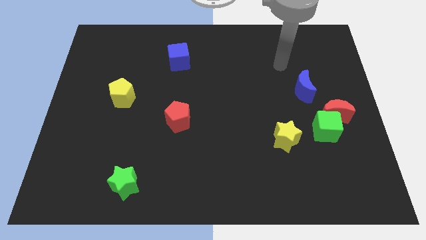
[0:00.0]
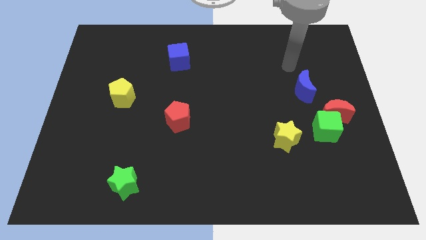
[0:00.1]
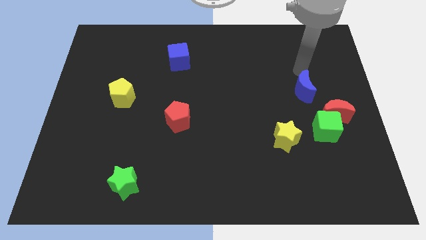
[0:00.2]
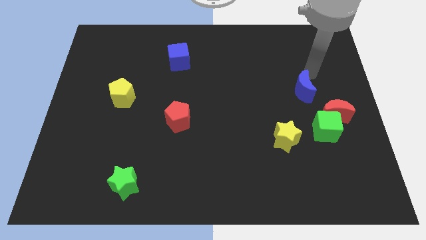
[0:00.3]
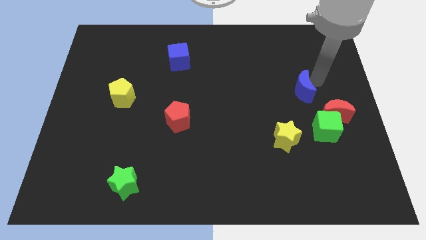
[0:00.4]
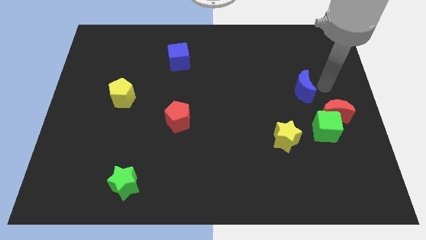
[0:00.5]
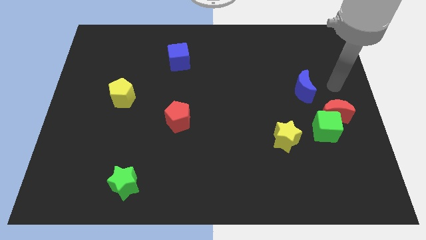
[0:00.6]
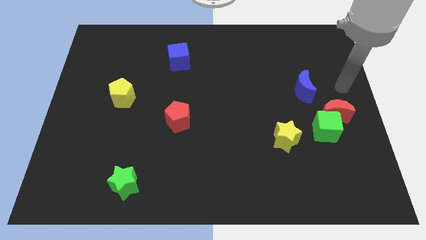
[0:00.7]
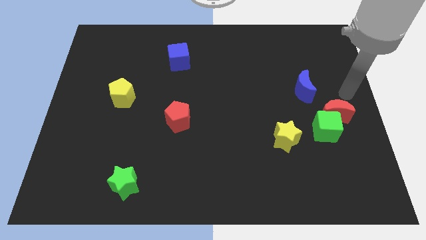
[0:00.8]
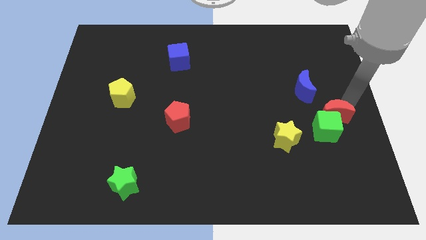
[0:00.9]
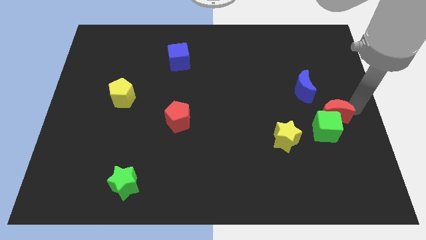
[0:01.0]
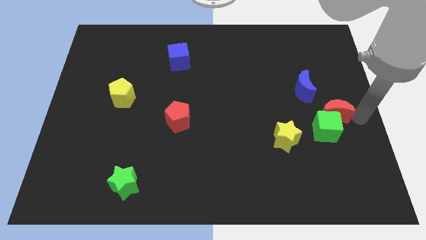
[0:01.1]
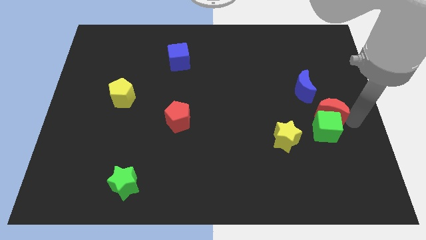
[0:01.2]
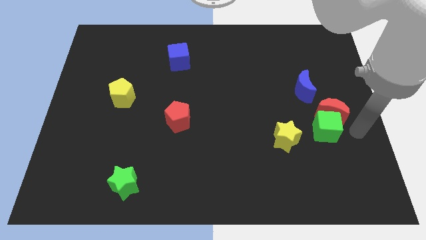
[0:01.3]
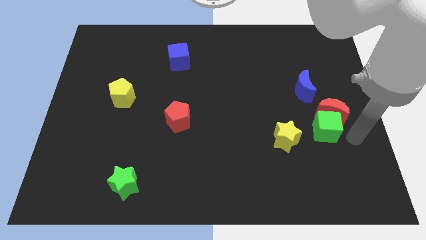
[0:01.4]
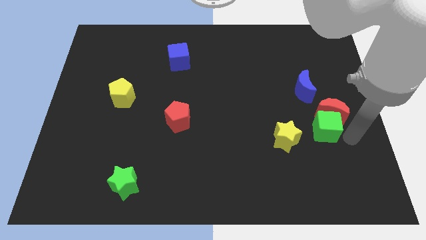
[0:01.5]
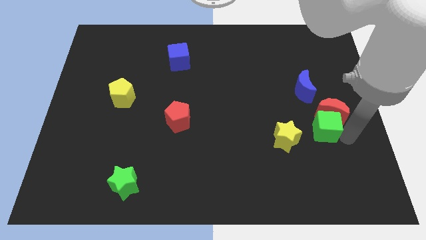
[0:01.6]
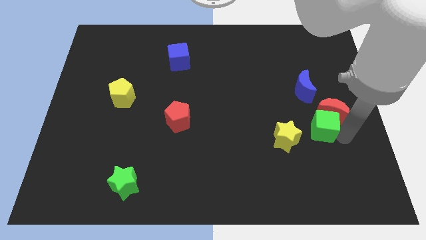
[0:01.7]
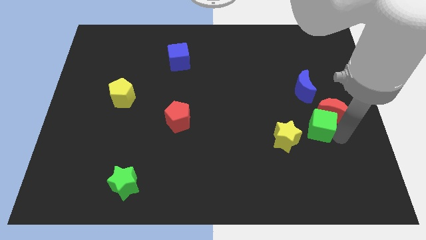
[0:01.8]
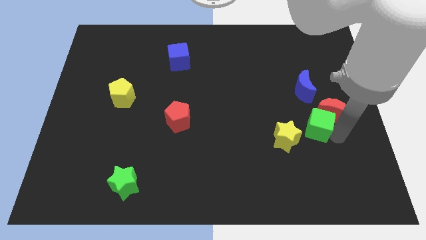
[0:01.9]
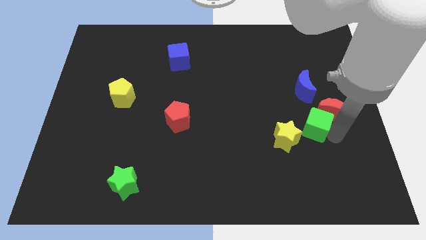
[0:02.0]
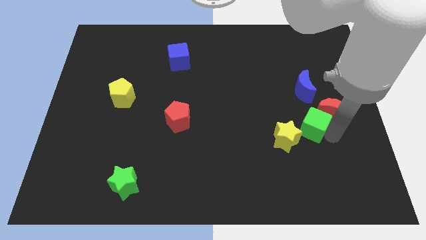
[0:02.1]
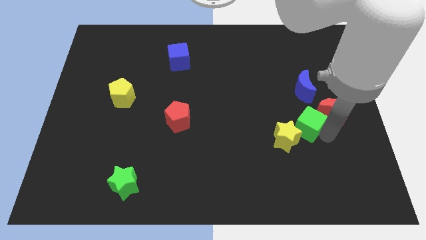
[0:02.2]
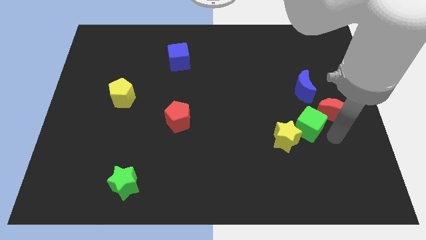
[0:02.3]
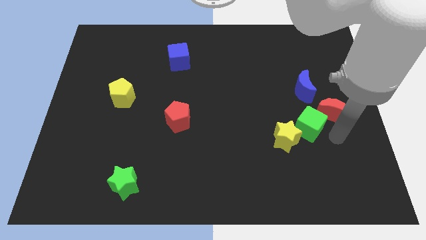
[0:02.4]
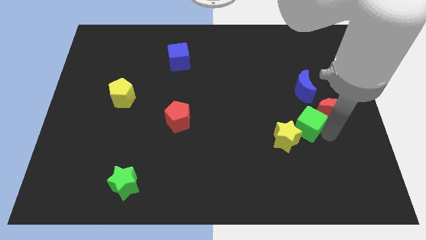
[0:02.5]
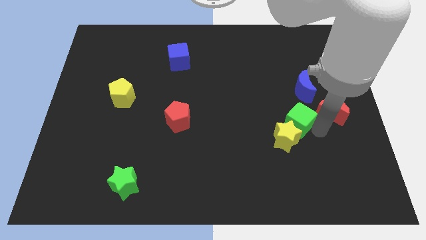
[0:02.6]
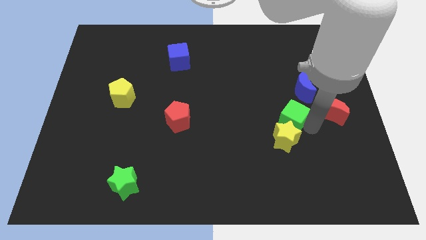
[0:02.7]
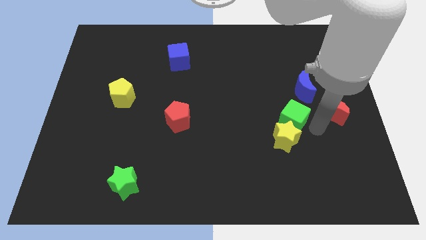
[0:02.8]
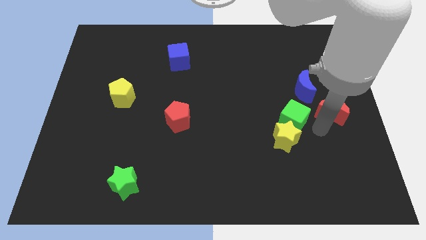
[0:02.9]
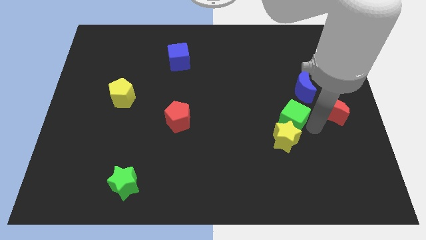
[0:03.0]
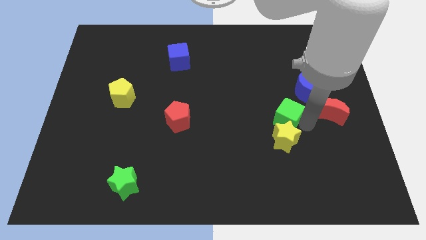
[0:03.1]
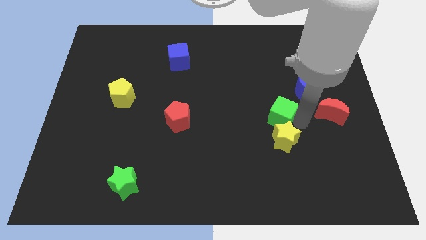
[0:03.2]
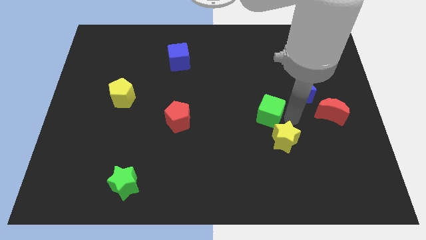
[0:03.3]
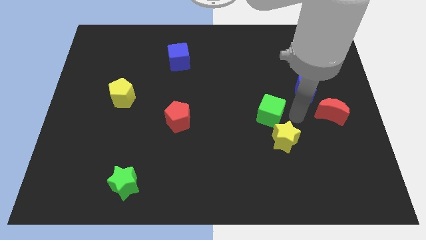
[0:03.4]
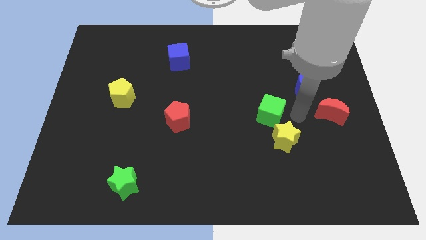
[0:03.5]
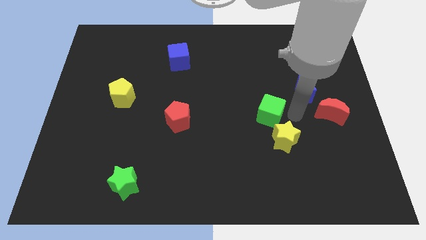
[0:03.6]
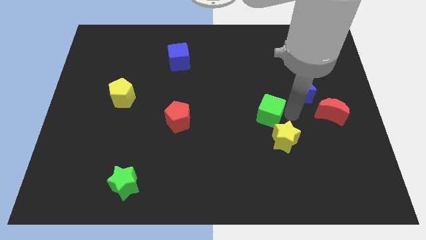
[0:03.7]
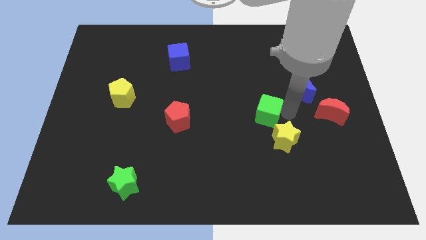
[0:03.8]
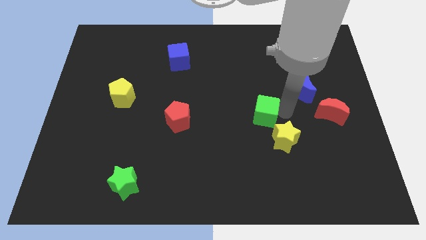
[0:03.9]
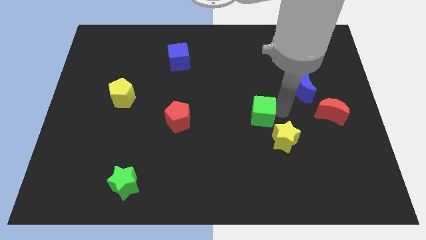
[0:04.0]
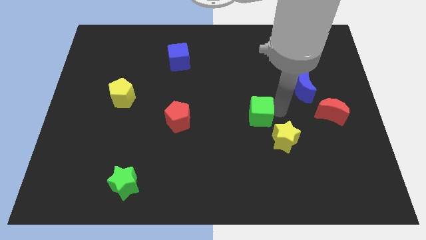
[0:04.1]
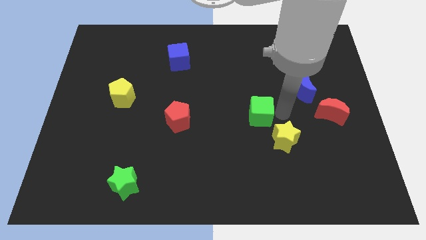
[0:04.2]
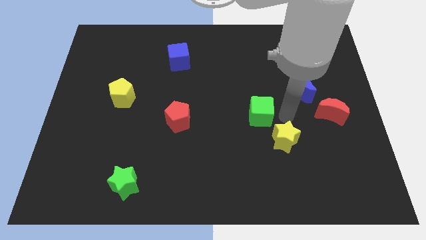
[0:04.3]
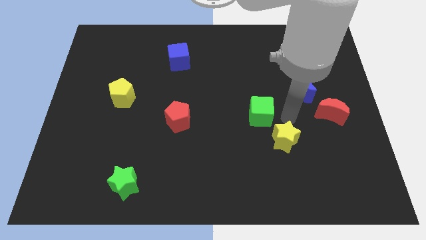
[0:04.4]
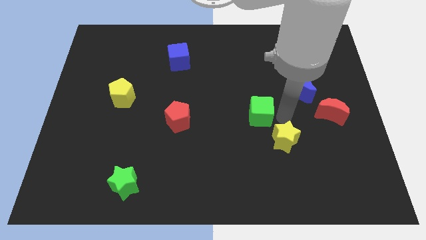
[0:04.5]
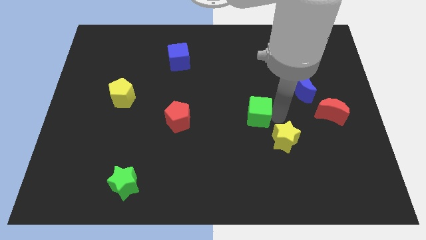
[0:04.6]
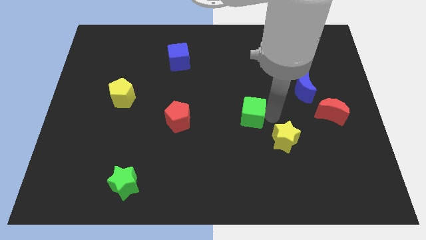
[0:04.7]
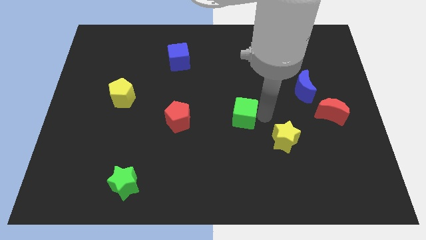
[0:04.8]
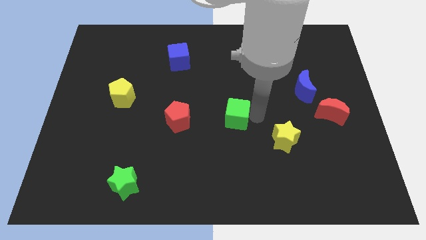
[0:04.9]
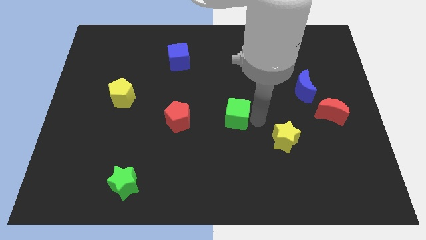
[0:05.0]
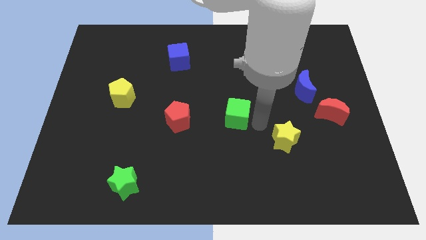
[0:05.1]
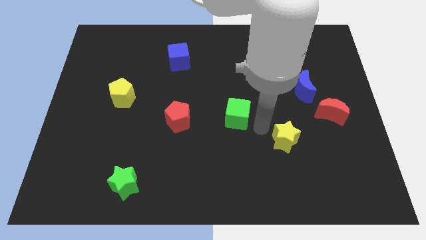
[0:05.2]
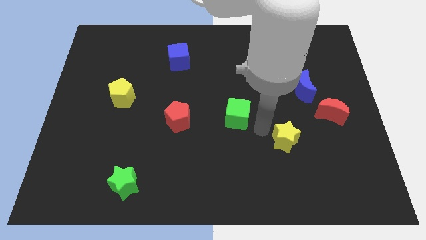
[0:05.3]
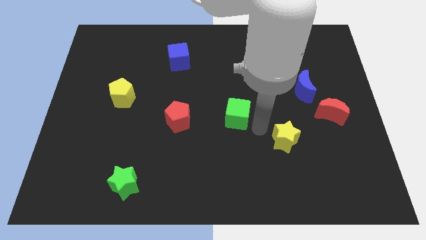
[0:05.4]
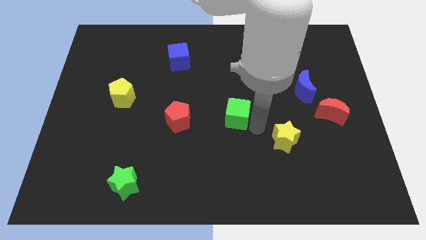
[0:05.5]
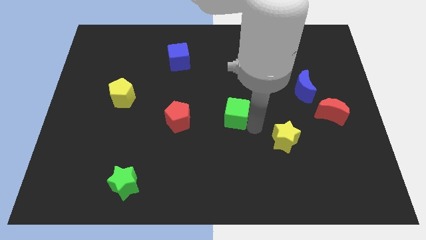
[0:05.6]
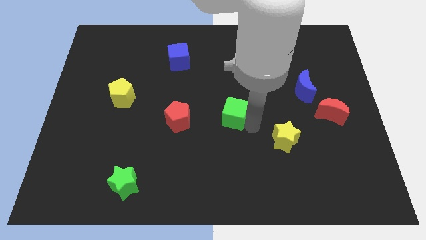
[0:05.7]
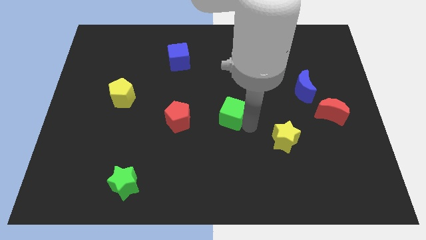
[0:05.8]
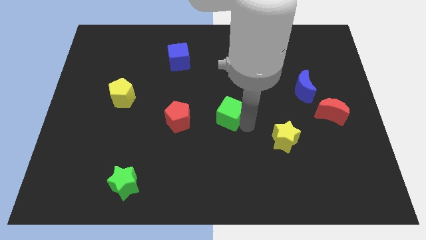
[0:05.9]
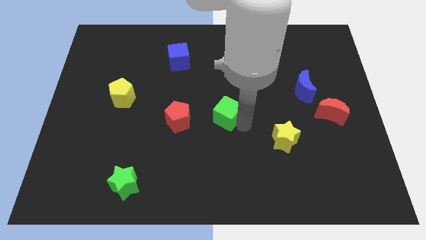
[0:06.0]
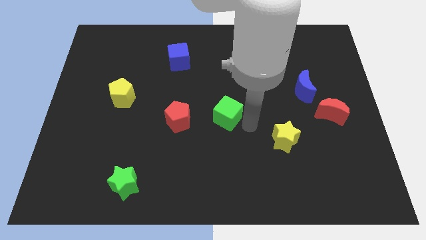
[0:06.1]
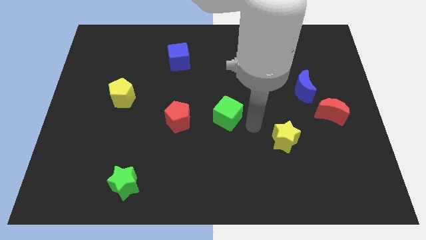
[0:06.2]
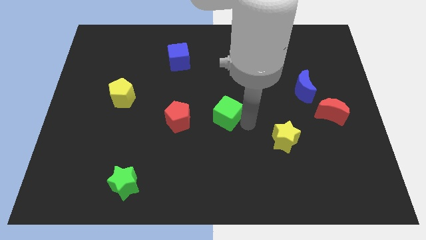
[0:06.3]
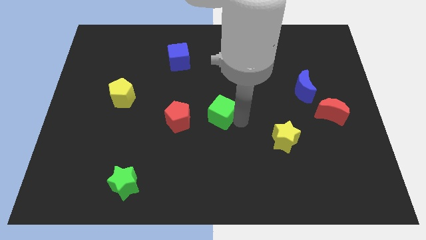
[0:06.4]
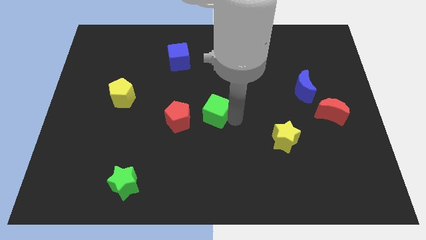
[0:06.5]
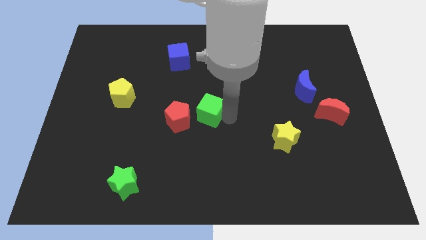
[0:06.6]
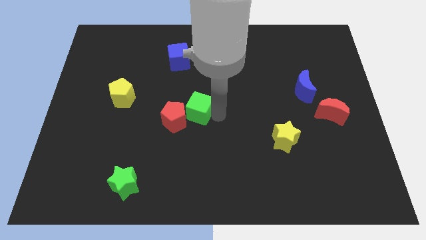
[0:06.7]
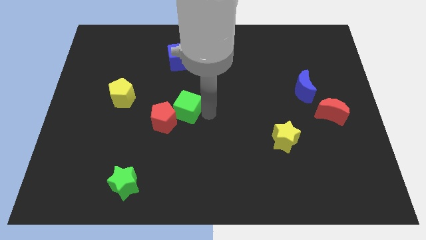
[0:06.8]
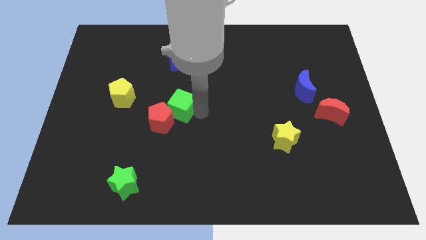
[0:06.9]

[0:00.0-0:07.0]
push the green cube just right of the yellow pentagon
